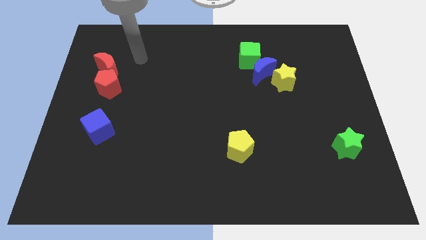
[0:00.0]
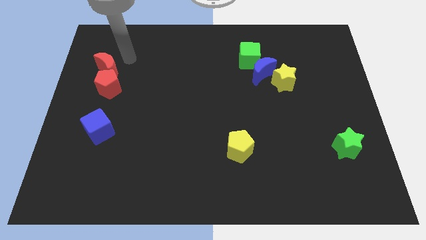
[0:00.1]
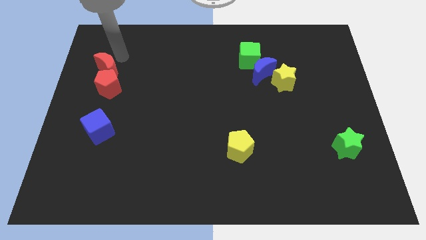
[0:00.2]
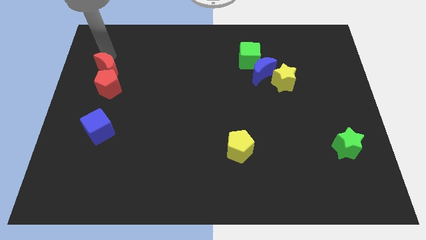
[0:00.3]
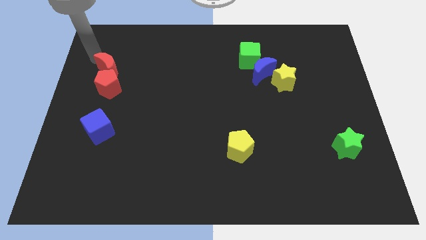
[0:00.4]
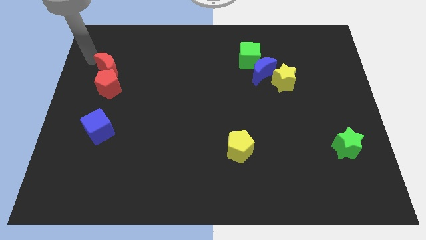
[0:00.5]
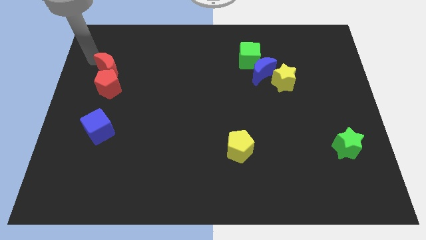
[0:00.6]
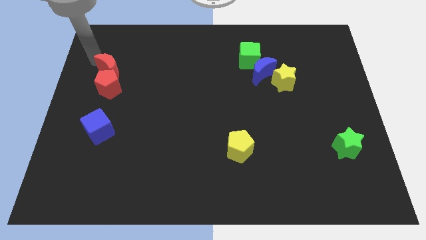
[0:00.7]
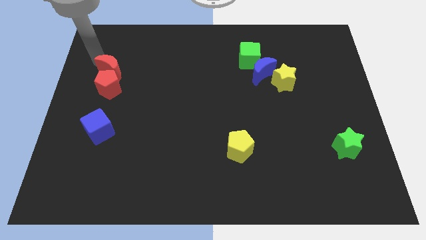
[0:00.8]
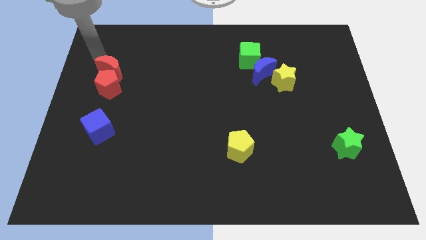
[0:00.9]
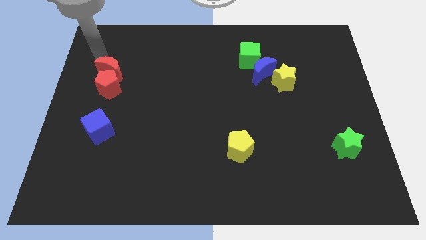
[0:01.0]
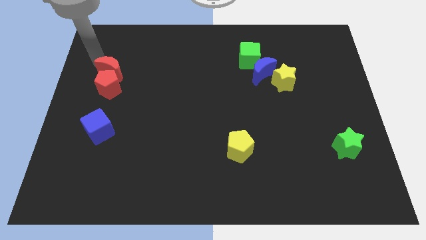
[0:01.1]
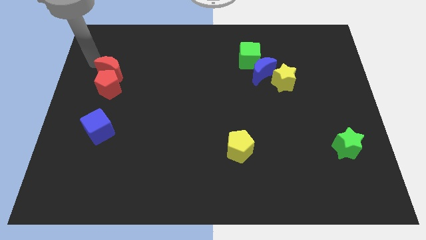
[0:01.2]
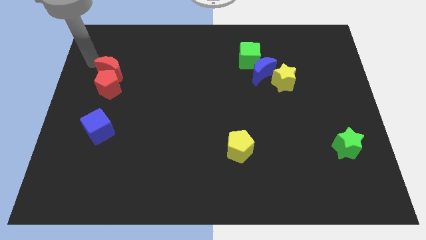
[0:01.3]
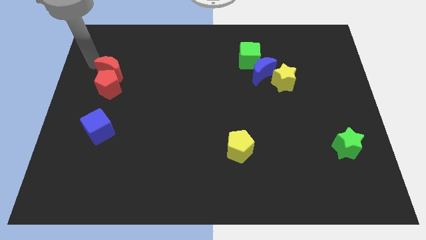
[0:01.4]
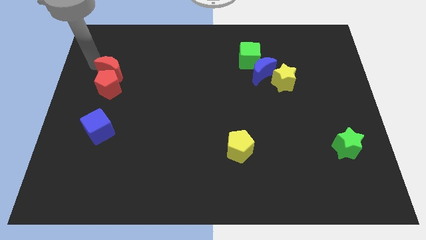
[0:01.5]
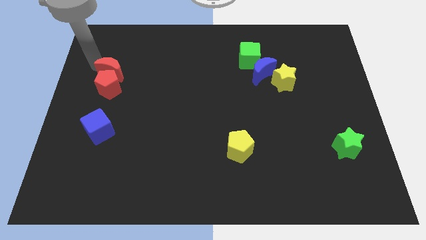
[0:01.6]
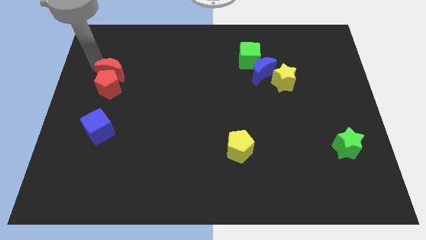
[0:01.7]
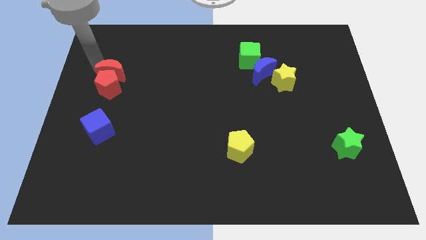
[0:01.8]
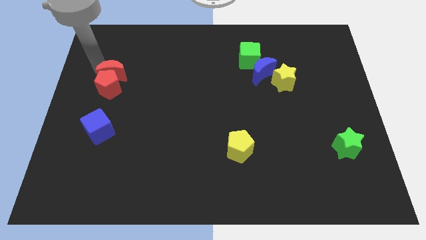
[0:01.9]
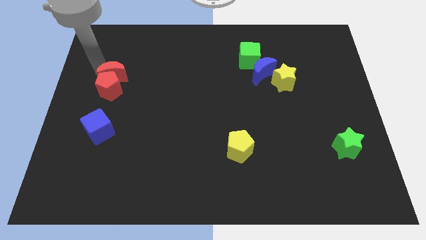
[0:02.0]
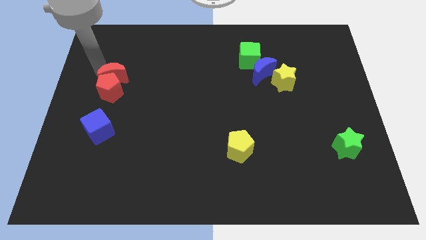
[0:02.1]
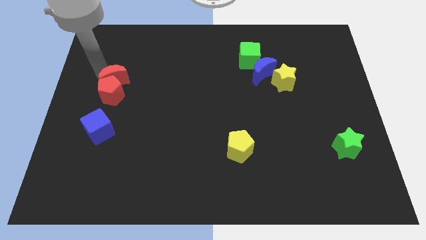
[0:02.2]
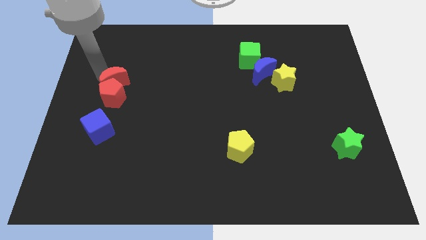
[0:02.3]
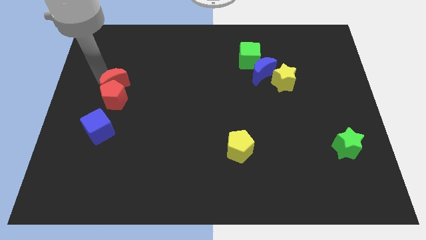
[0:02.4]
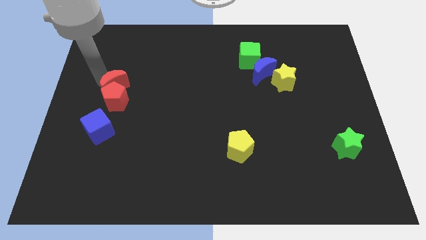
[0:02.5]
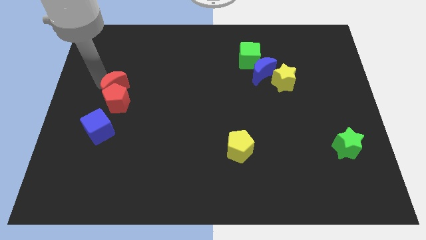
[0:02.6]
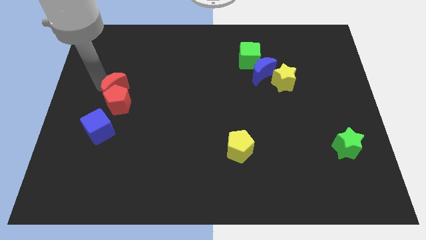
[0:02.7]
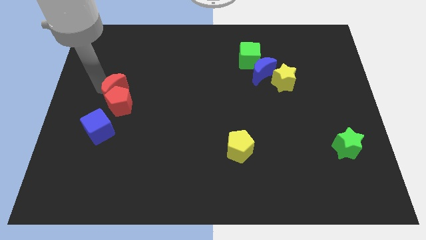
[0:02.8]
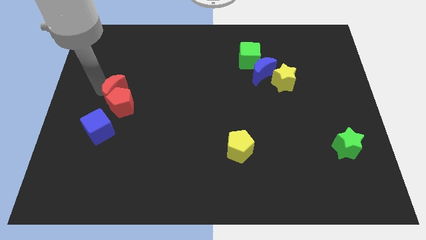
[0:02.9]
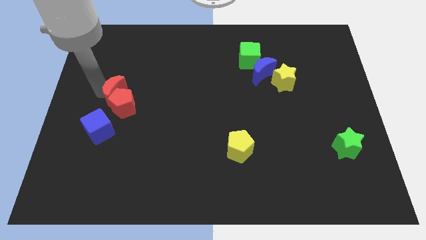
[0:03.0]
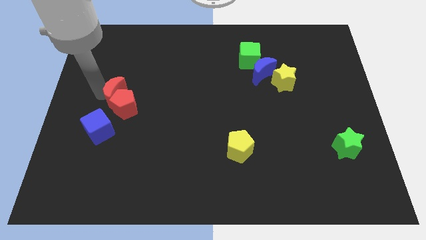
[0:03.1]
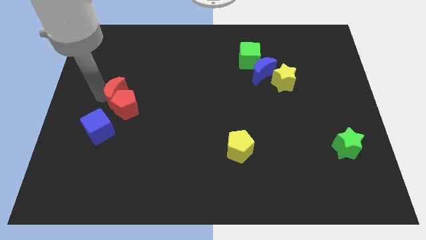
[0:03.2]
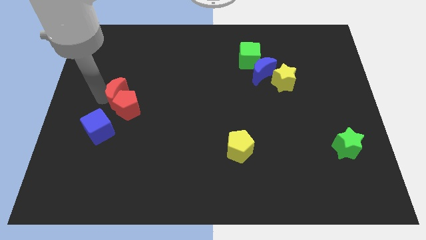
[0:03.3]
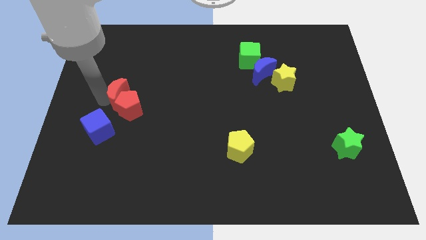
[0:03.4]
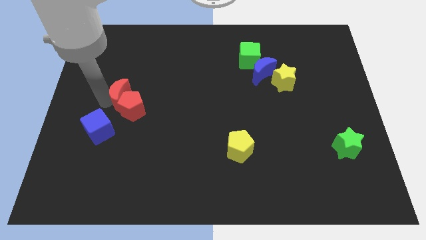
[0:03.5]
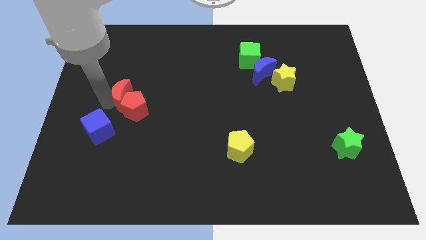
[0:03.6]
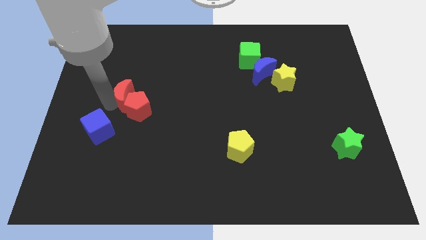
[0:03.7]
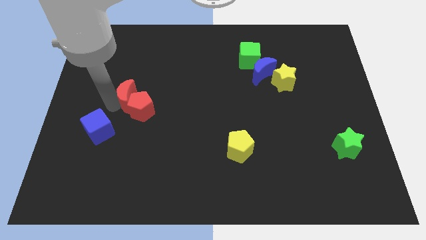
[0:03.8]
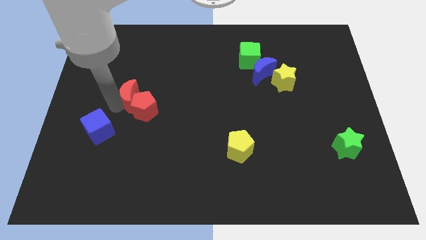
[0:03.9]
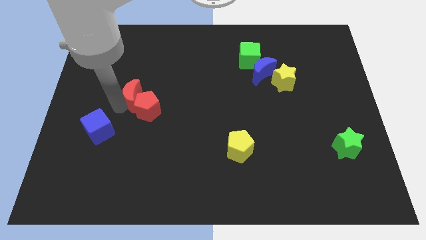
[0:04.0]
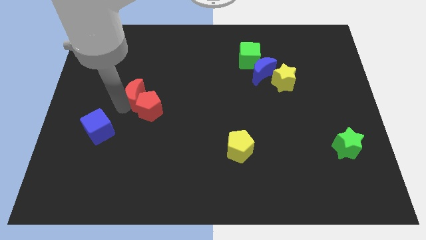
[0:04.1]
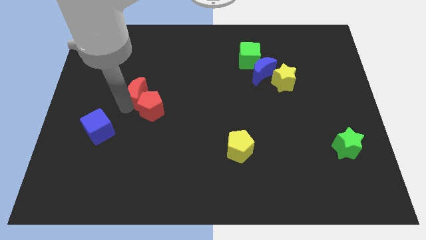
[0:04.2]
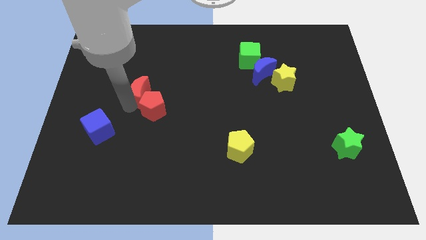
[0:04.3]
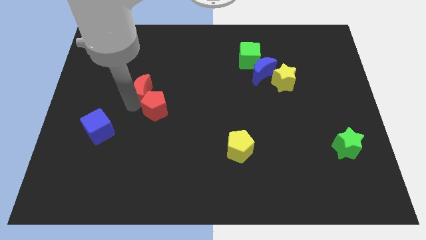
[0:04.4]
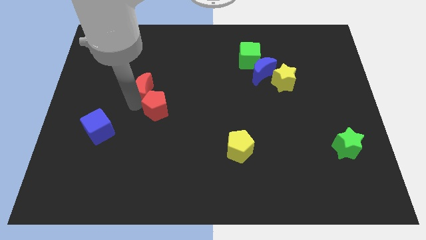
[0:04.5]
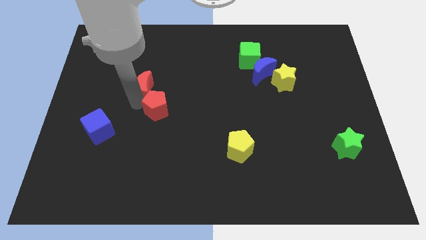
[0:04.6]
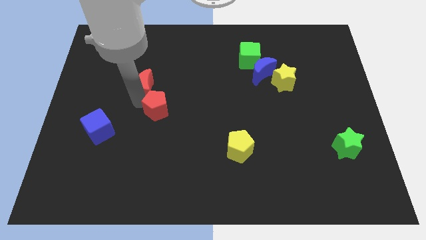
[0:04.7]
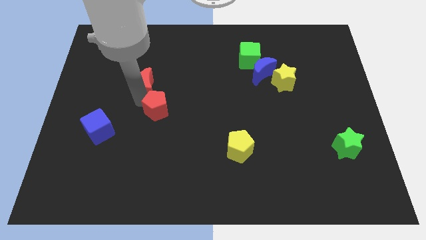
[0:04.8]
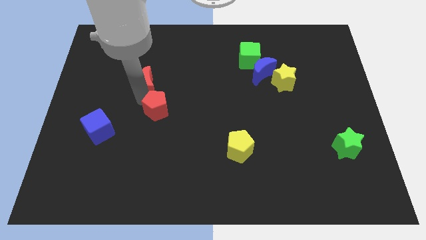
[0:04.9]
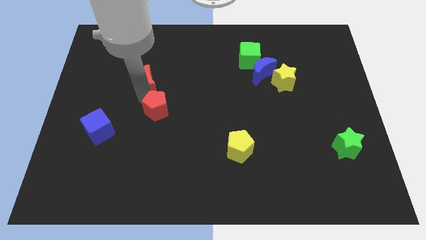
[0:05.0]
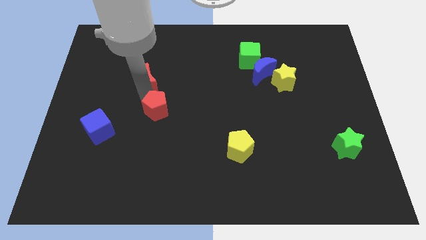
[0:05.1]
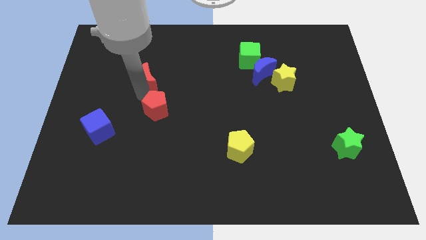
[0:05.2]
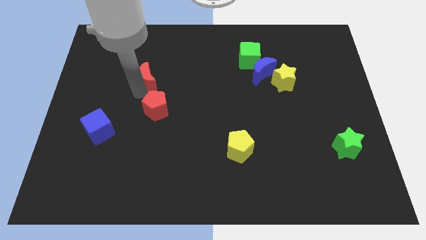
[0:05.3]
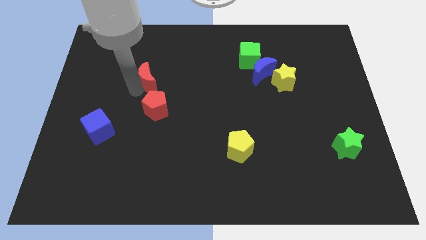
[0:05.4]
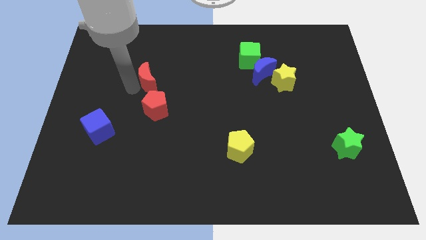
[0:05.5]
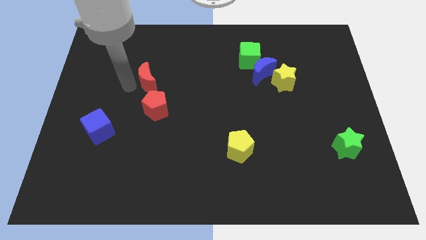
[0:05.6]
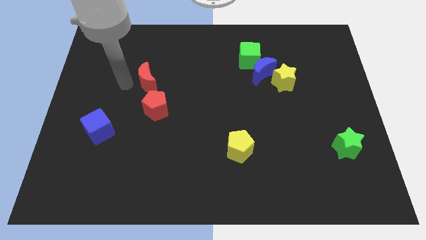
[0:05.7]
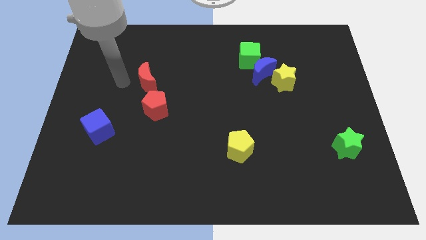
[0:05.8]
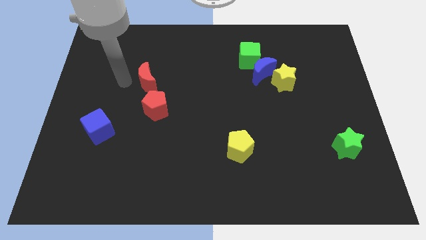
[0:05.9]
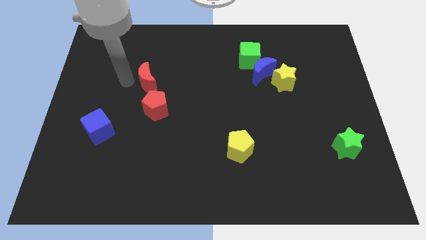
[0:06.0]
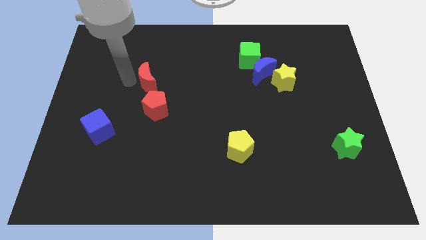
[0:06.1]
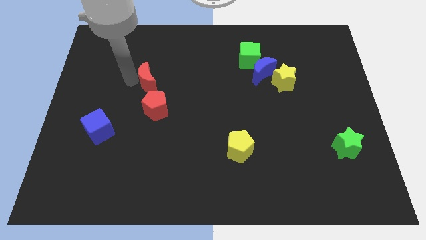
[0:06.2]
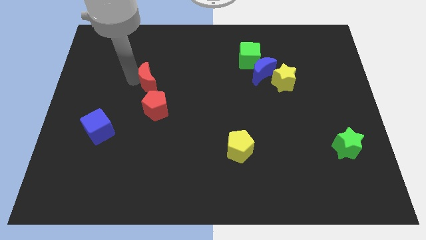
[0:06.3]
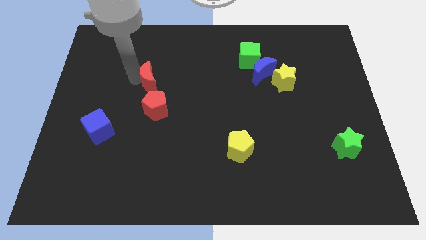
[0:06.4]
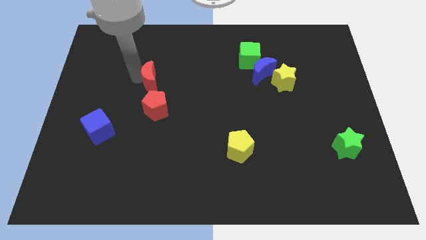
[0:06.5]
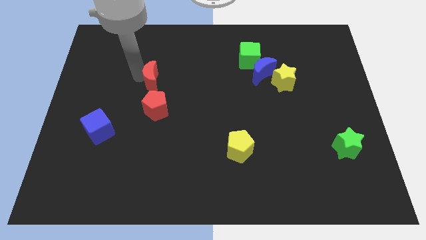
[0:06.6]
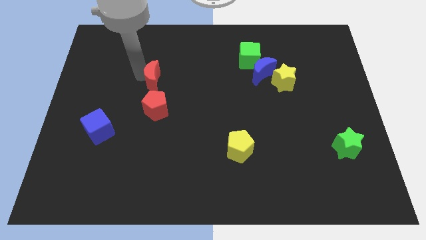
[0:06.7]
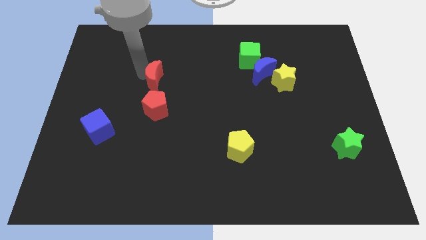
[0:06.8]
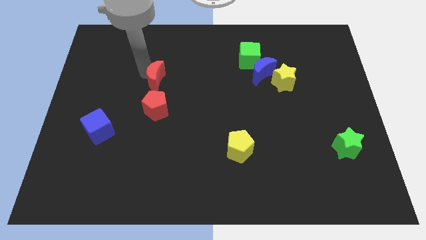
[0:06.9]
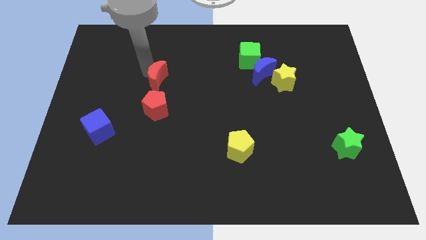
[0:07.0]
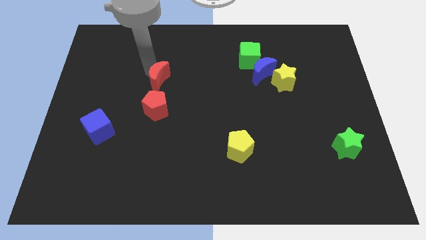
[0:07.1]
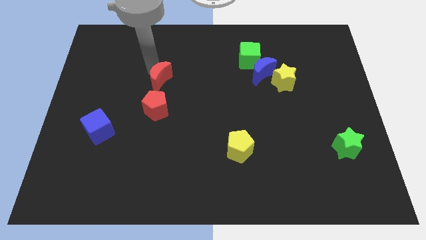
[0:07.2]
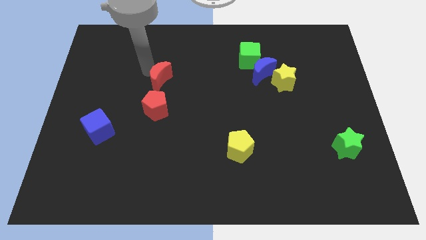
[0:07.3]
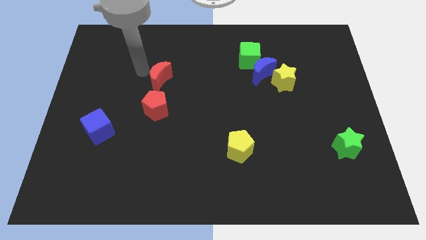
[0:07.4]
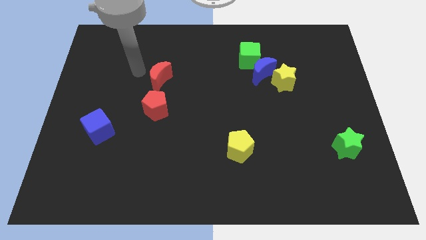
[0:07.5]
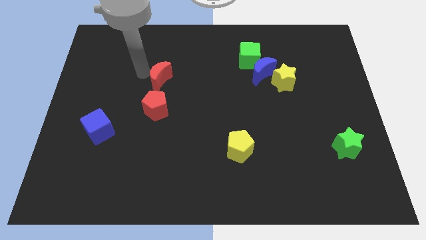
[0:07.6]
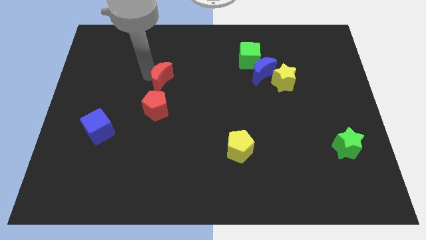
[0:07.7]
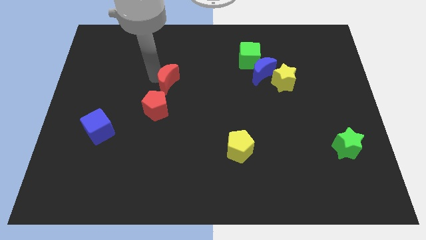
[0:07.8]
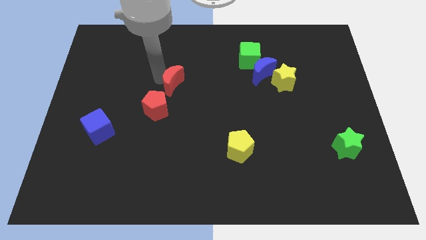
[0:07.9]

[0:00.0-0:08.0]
move the red moon to the middle

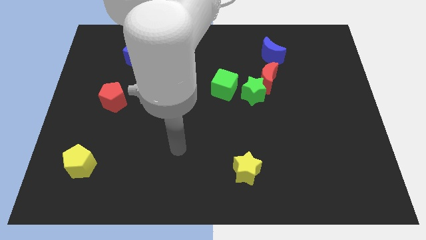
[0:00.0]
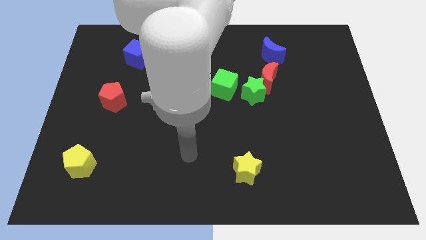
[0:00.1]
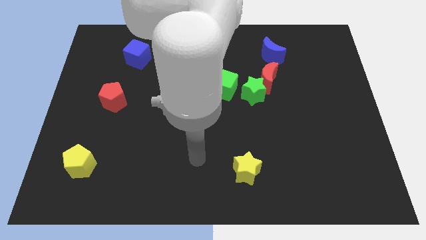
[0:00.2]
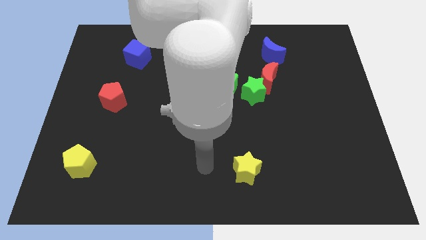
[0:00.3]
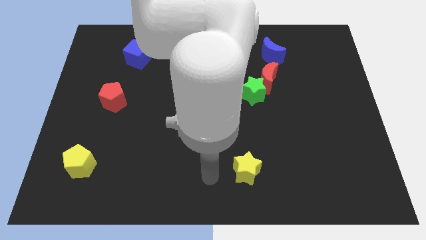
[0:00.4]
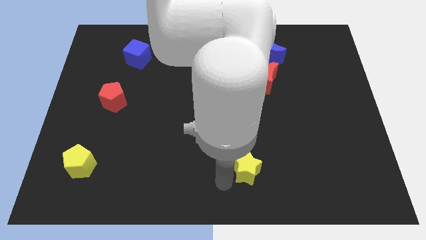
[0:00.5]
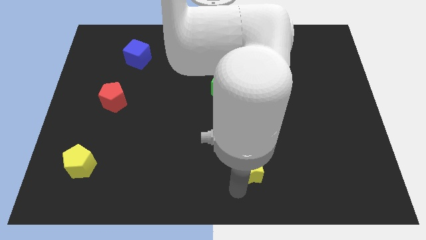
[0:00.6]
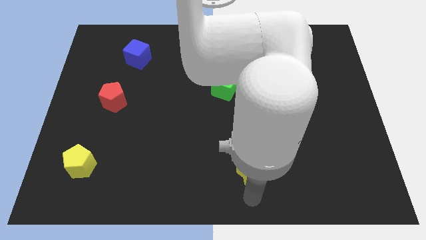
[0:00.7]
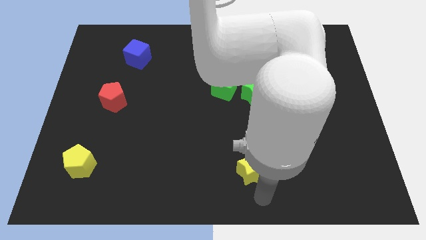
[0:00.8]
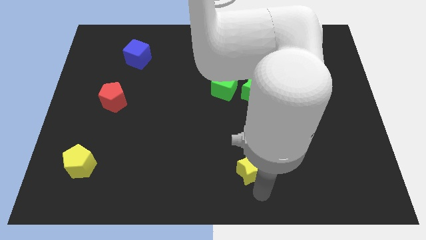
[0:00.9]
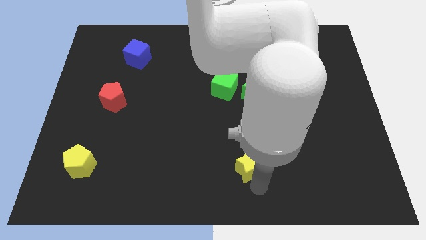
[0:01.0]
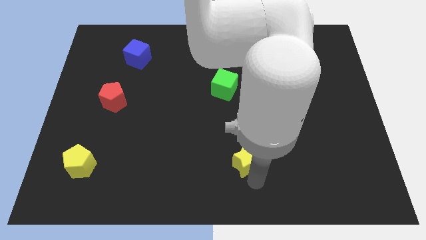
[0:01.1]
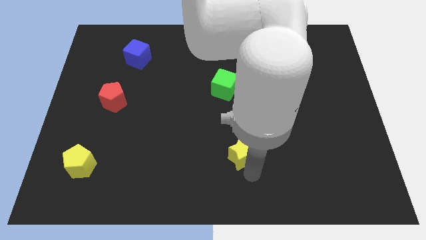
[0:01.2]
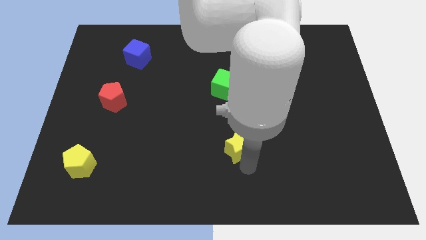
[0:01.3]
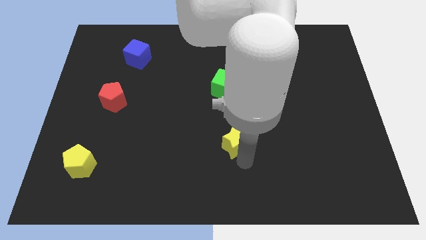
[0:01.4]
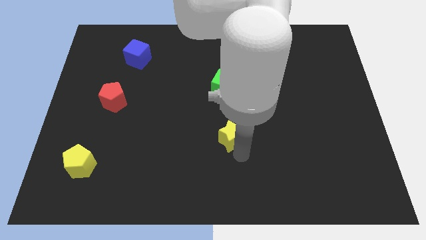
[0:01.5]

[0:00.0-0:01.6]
slide the yellow star to the center of the board
